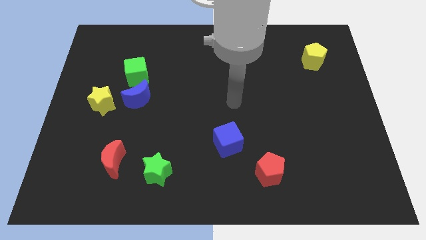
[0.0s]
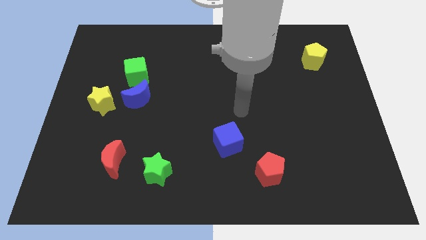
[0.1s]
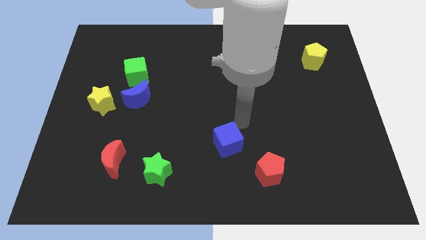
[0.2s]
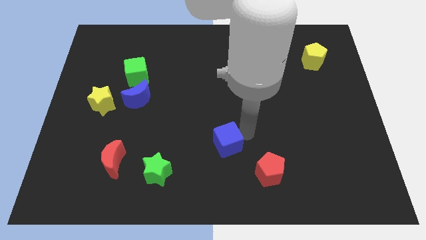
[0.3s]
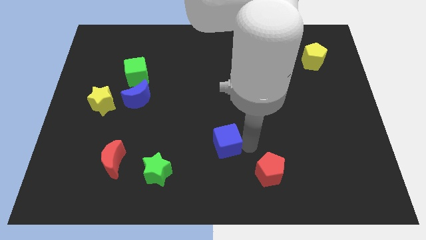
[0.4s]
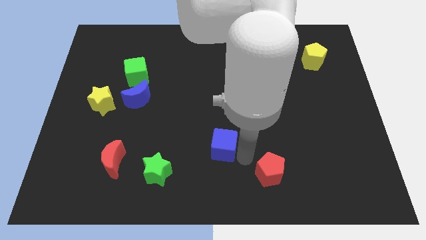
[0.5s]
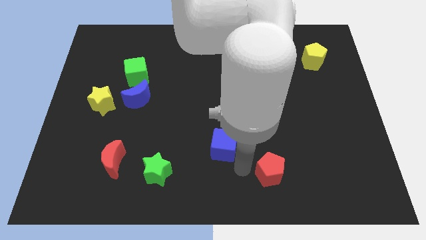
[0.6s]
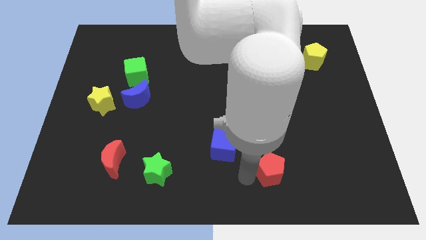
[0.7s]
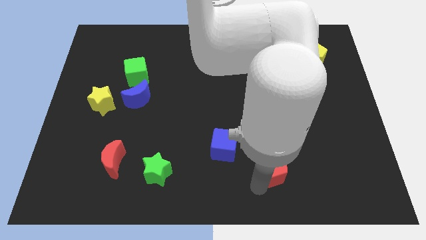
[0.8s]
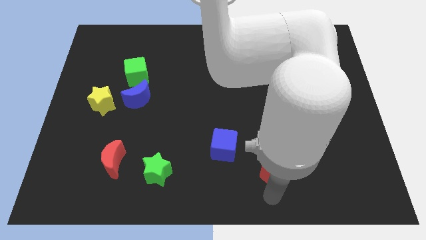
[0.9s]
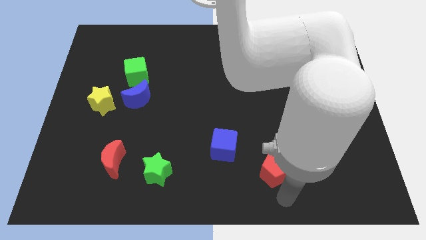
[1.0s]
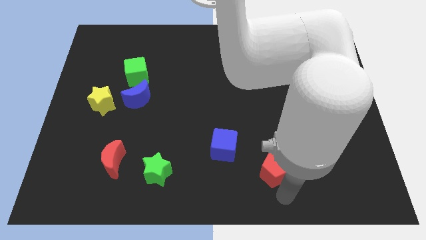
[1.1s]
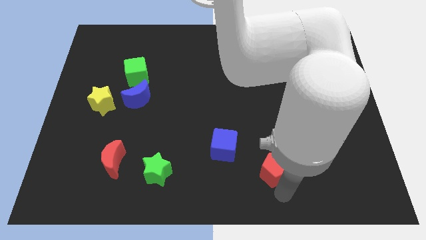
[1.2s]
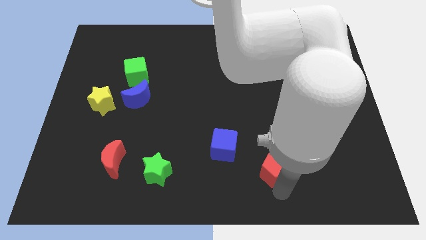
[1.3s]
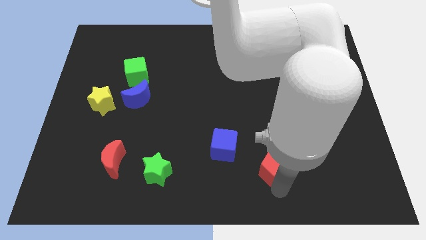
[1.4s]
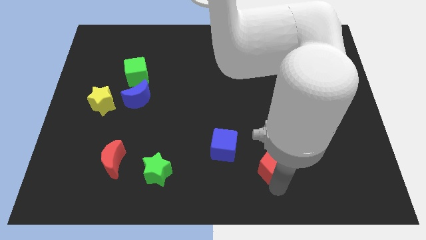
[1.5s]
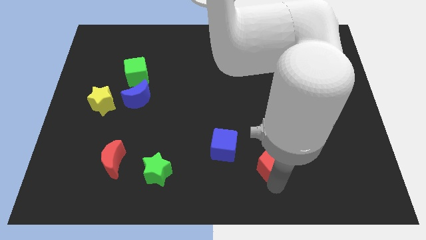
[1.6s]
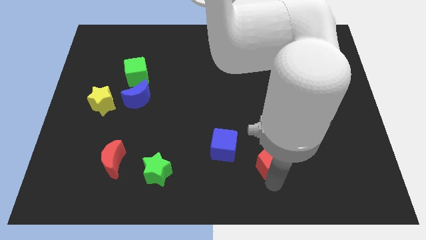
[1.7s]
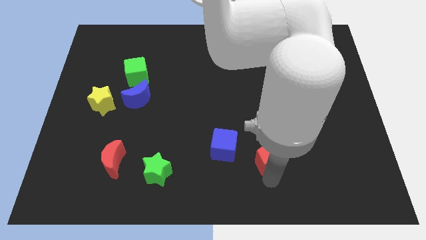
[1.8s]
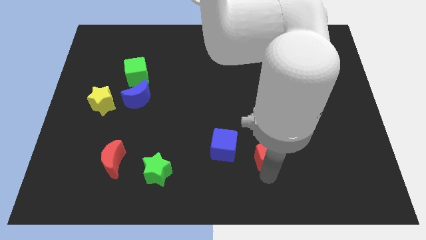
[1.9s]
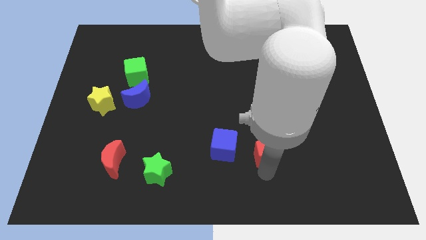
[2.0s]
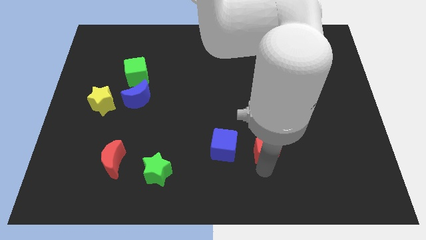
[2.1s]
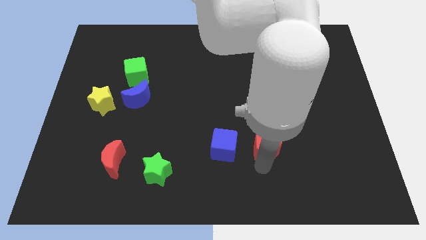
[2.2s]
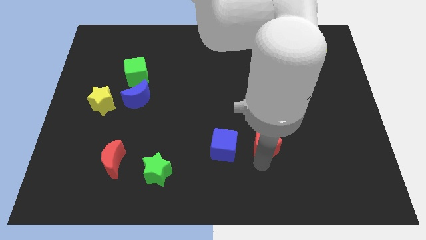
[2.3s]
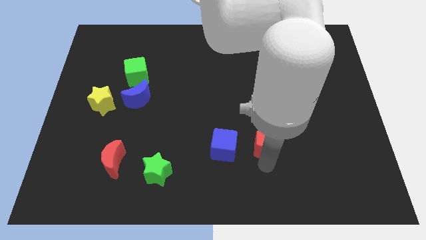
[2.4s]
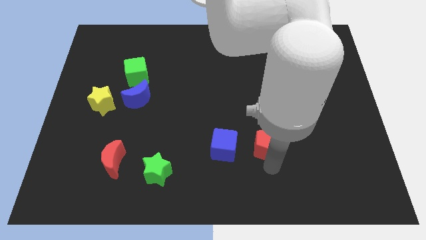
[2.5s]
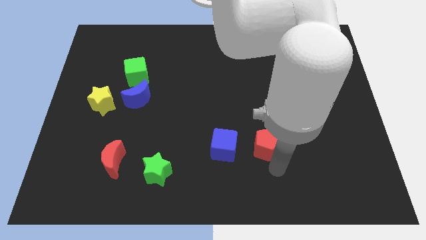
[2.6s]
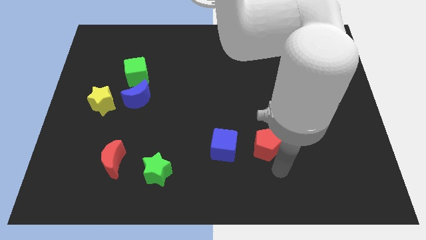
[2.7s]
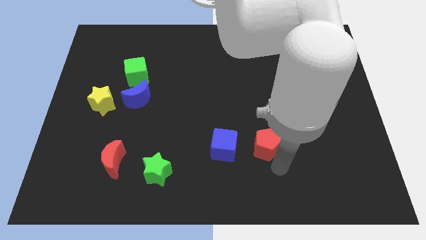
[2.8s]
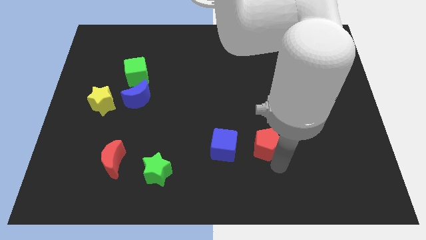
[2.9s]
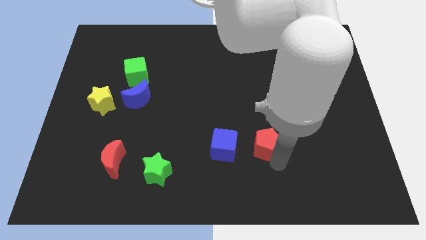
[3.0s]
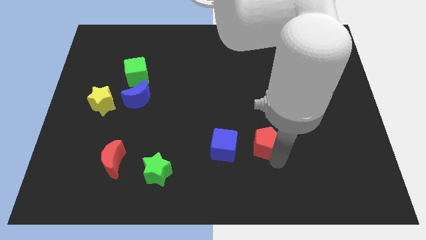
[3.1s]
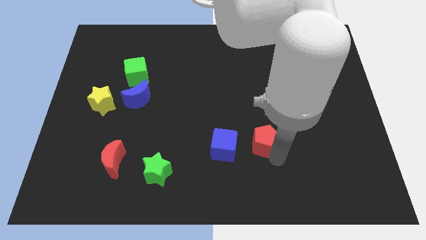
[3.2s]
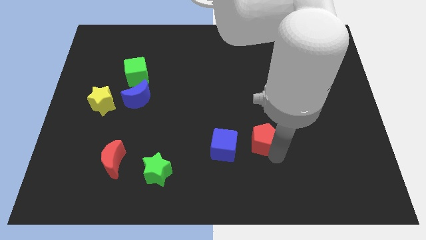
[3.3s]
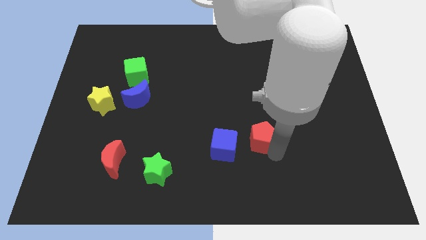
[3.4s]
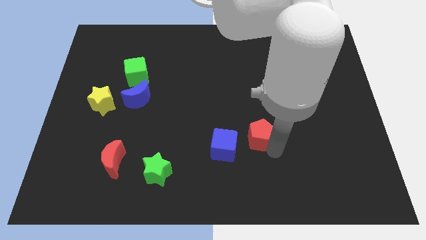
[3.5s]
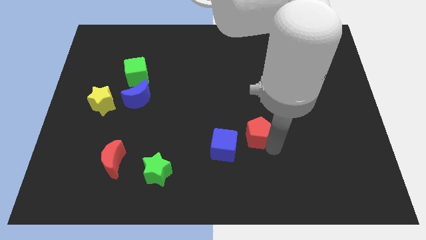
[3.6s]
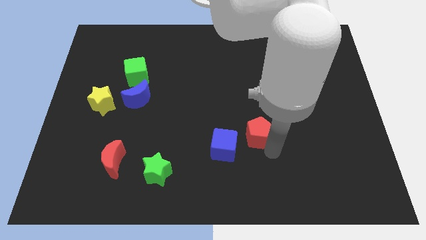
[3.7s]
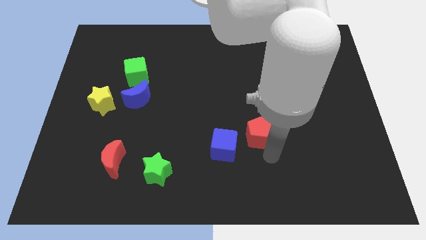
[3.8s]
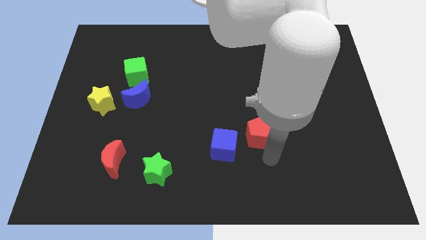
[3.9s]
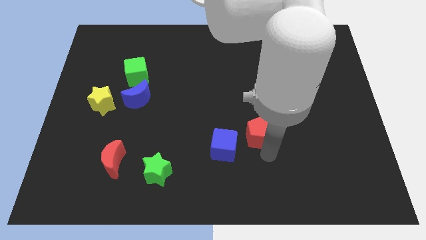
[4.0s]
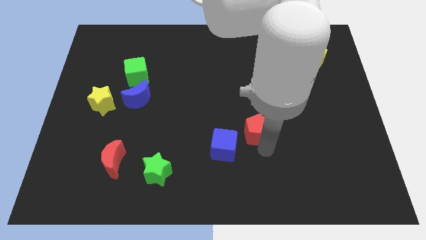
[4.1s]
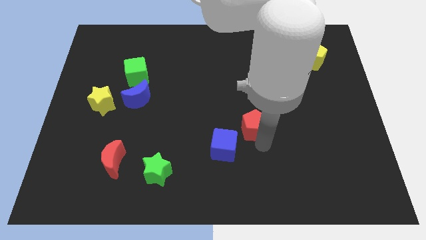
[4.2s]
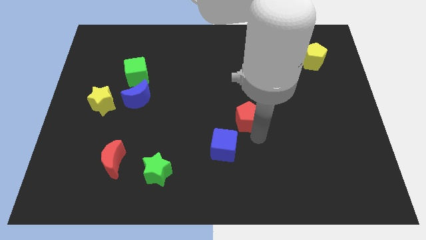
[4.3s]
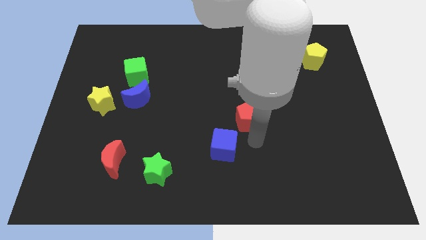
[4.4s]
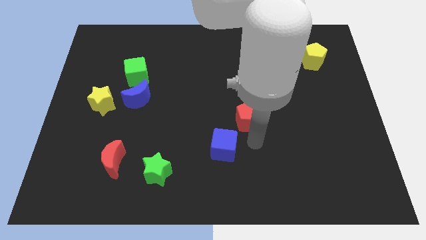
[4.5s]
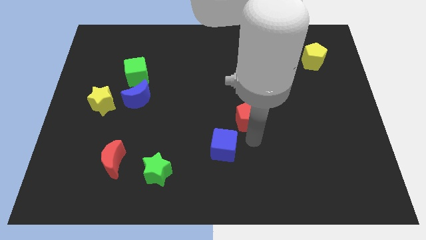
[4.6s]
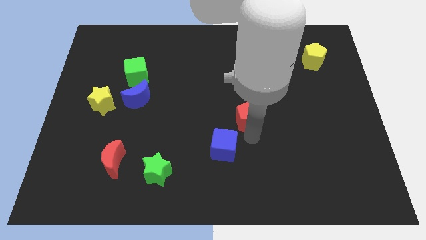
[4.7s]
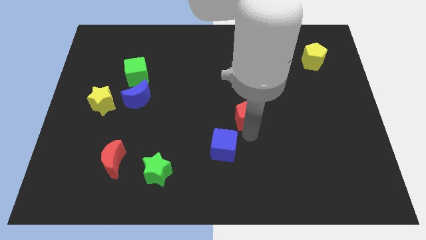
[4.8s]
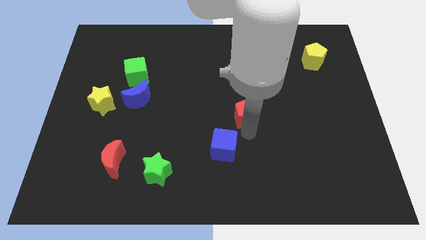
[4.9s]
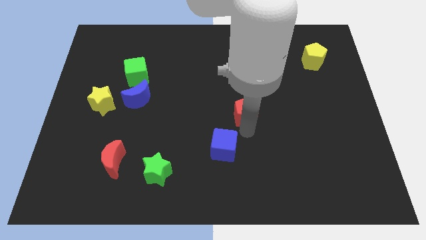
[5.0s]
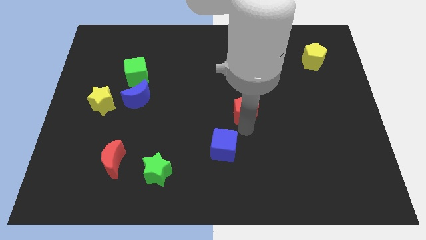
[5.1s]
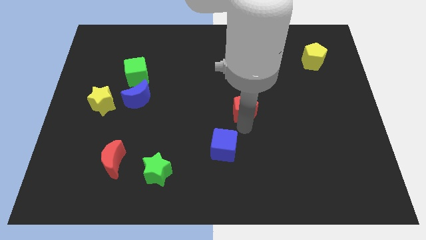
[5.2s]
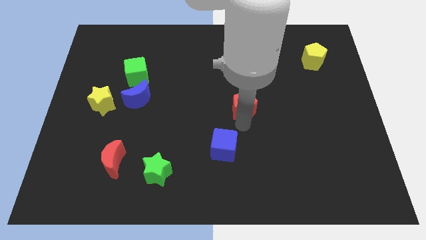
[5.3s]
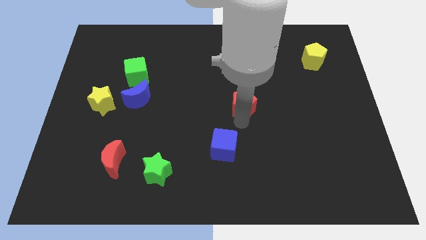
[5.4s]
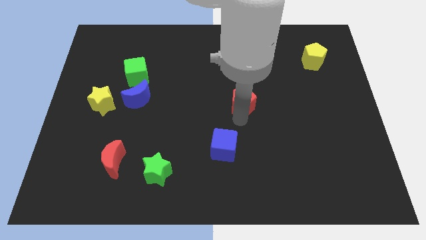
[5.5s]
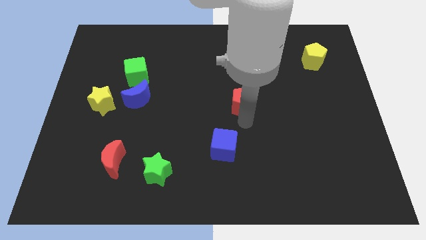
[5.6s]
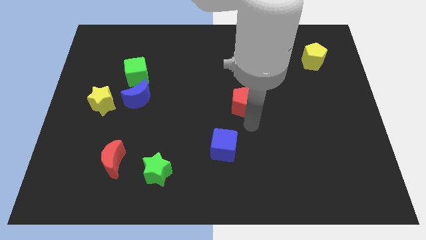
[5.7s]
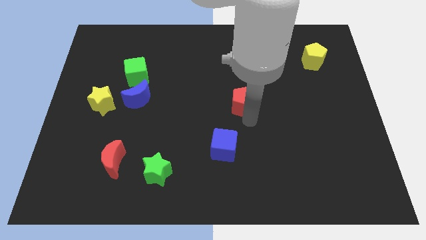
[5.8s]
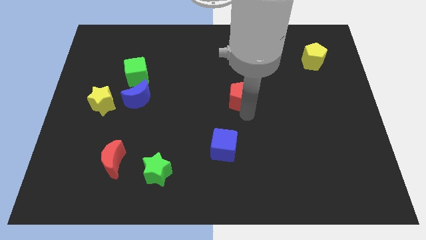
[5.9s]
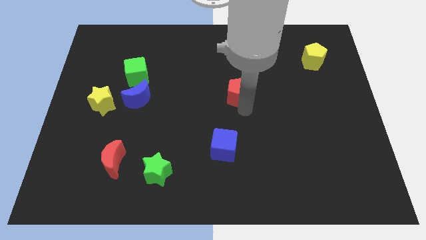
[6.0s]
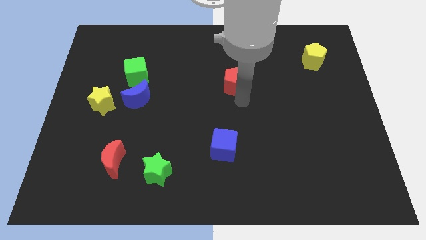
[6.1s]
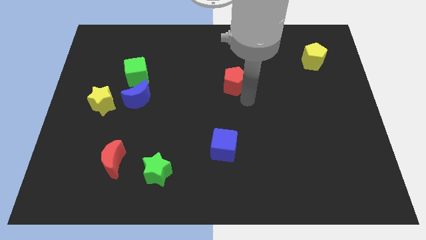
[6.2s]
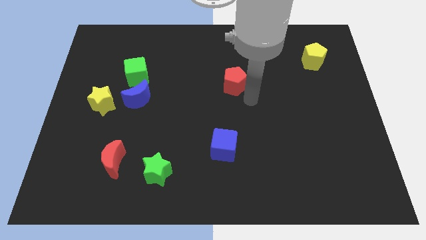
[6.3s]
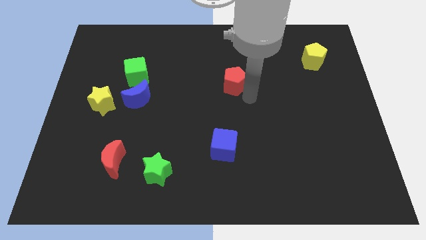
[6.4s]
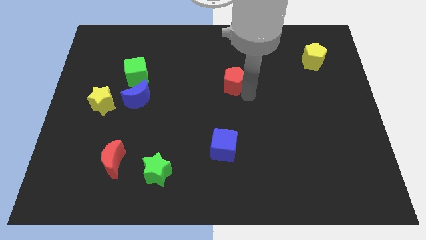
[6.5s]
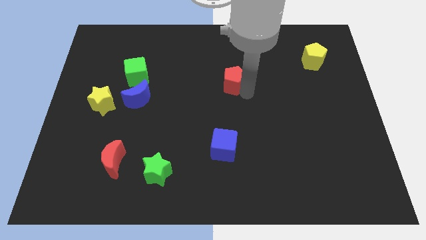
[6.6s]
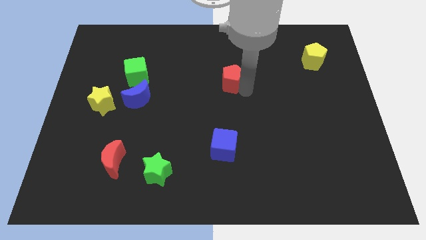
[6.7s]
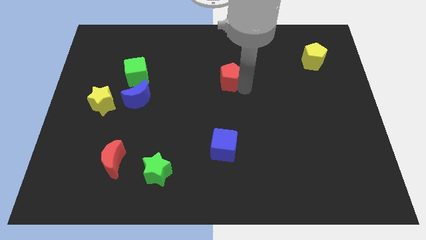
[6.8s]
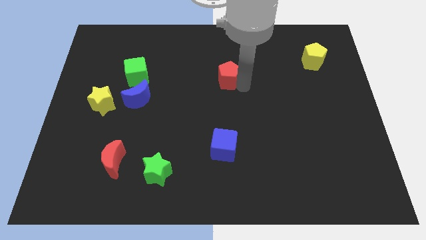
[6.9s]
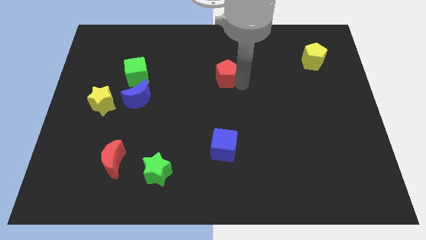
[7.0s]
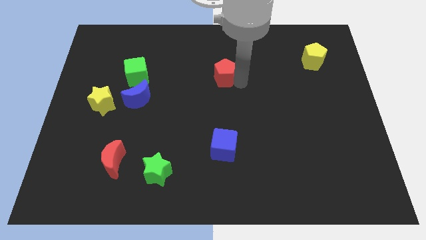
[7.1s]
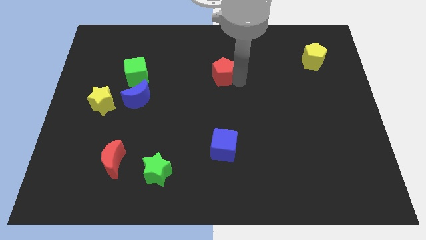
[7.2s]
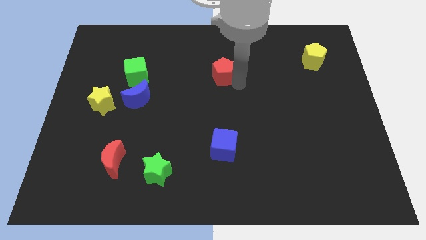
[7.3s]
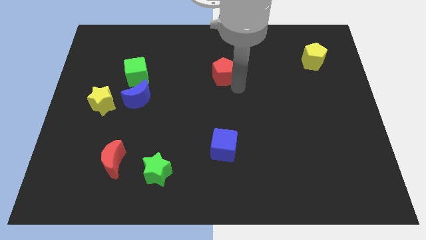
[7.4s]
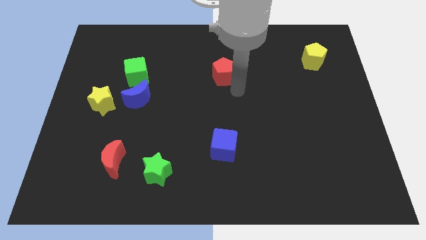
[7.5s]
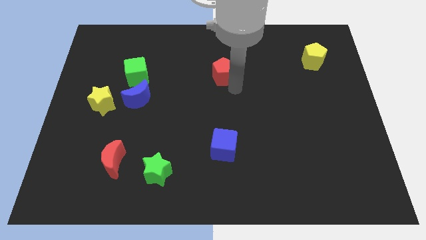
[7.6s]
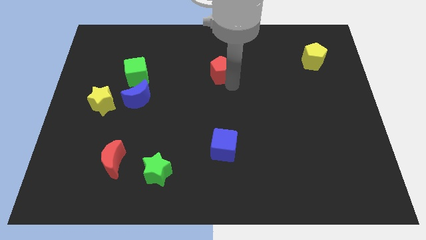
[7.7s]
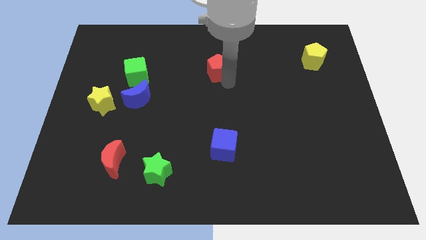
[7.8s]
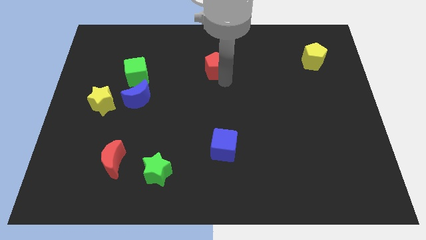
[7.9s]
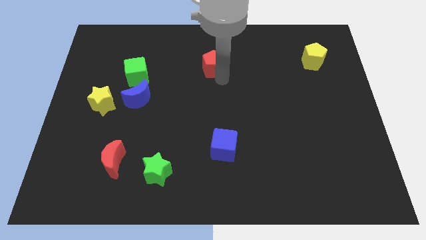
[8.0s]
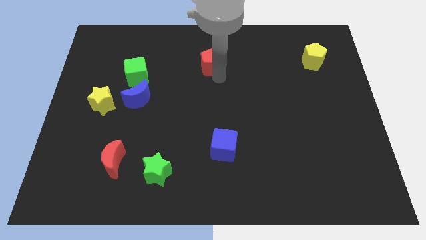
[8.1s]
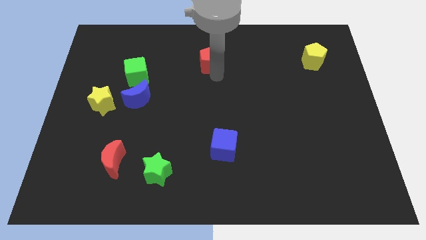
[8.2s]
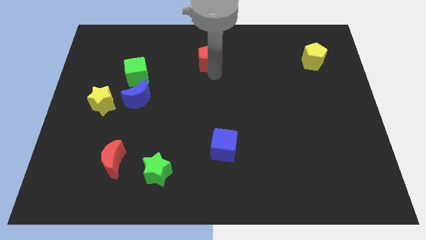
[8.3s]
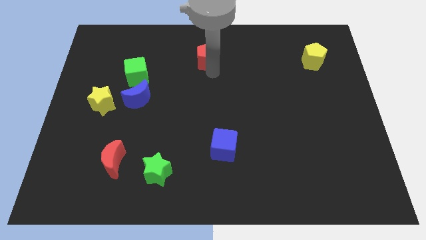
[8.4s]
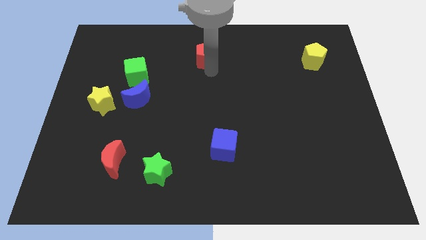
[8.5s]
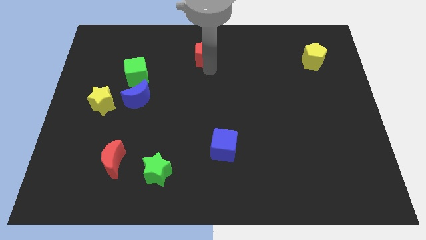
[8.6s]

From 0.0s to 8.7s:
push the red pentagon to the towards your base
